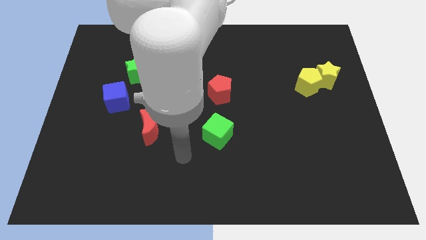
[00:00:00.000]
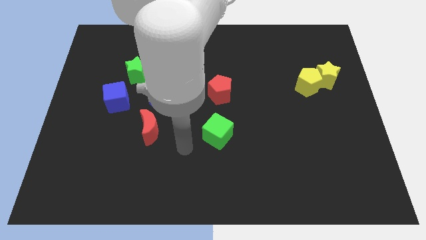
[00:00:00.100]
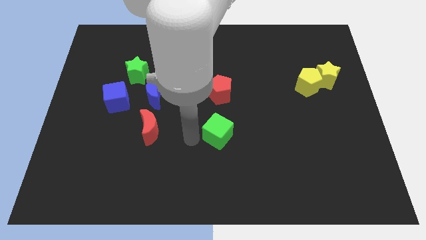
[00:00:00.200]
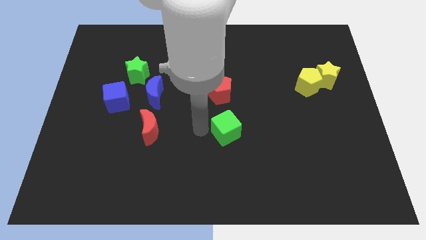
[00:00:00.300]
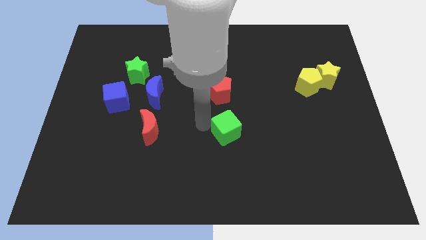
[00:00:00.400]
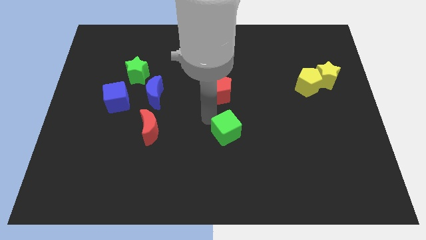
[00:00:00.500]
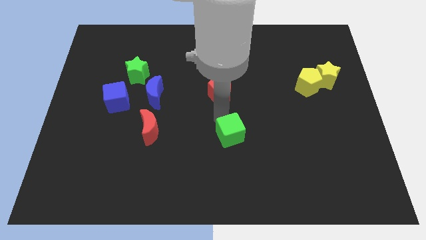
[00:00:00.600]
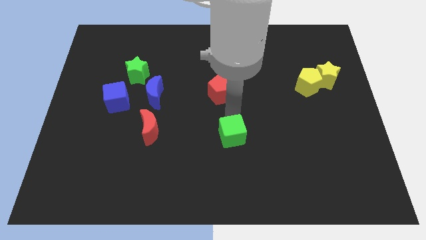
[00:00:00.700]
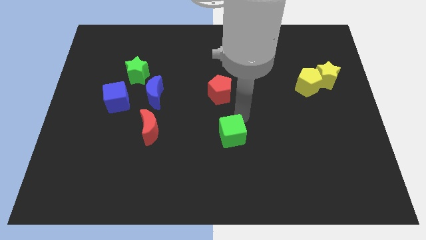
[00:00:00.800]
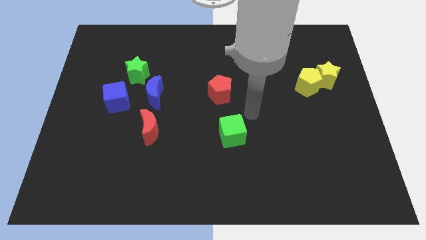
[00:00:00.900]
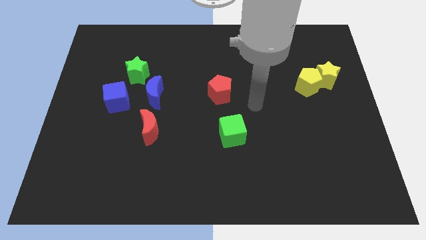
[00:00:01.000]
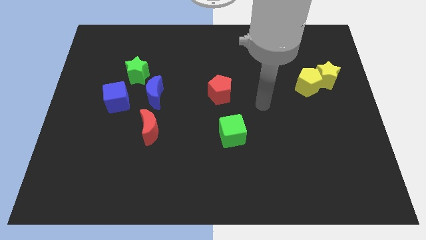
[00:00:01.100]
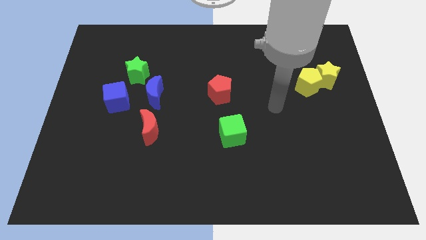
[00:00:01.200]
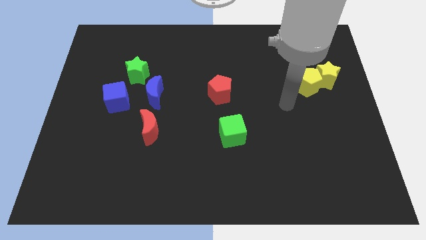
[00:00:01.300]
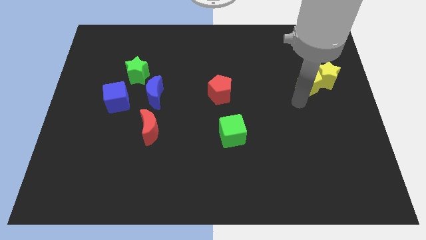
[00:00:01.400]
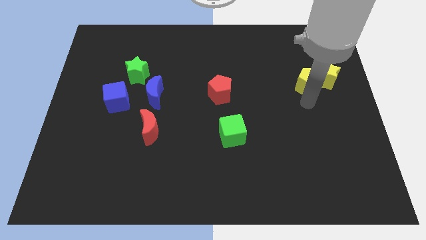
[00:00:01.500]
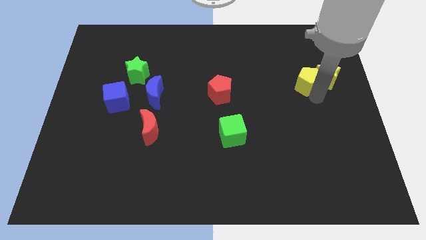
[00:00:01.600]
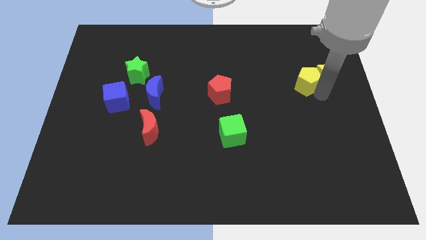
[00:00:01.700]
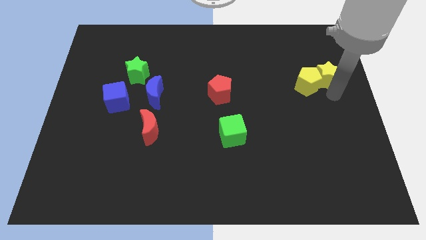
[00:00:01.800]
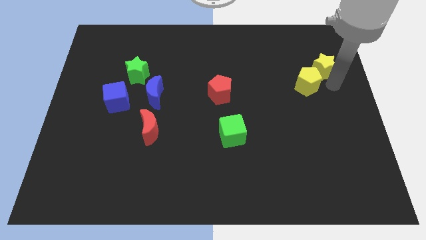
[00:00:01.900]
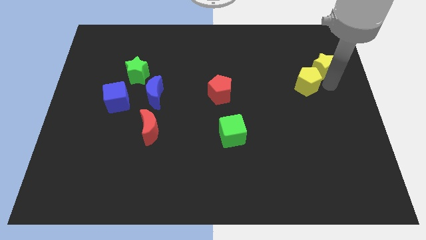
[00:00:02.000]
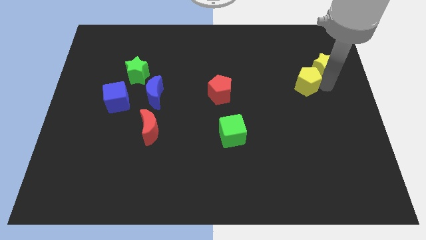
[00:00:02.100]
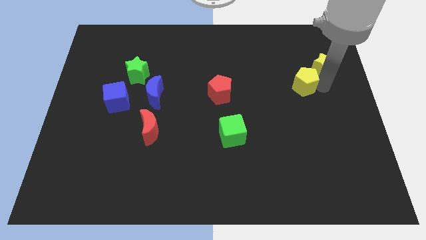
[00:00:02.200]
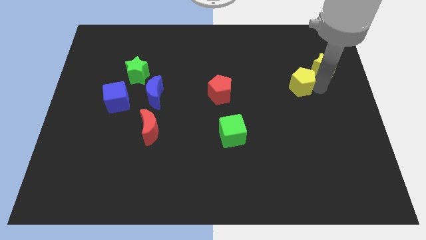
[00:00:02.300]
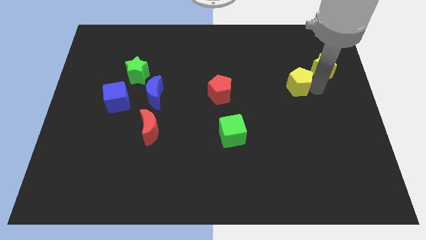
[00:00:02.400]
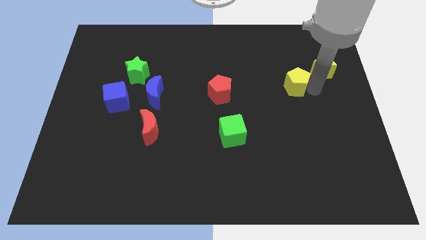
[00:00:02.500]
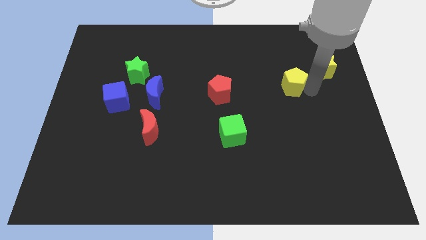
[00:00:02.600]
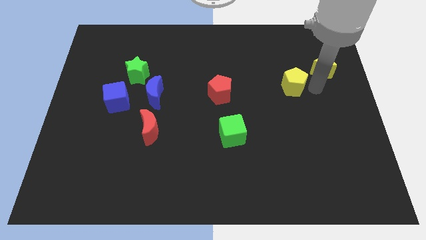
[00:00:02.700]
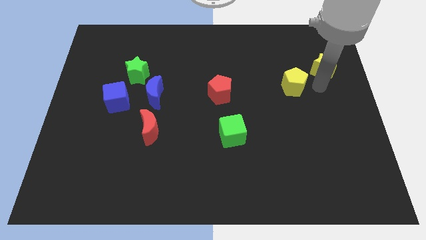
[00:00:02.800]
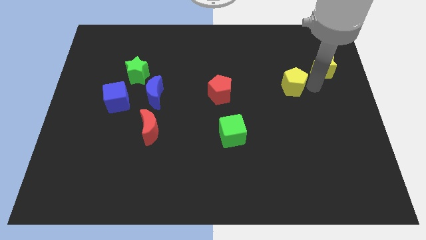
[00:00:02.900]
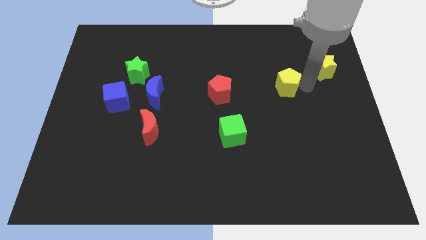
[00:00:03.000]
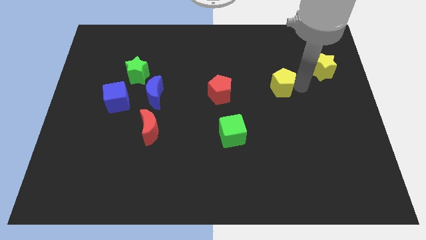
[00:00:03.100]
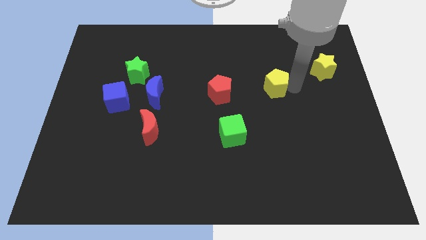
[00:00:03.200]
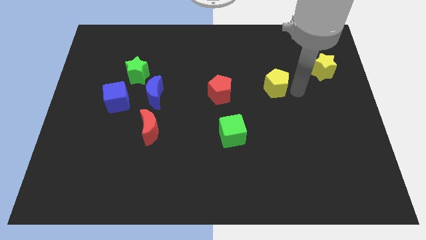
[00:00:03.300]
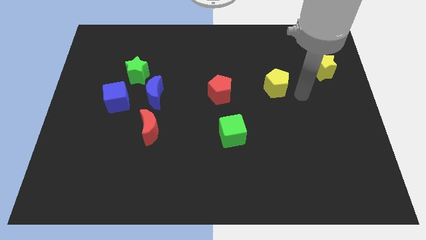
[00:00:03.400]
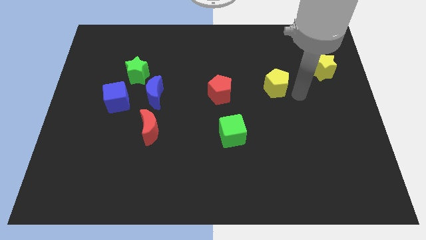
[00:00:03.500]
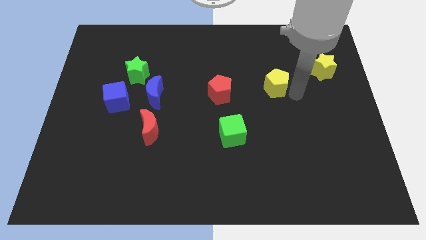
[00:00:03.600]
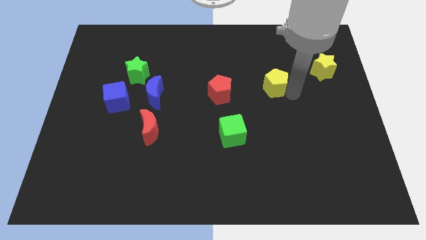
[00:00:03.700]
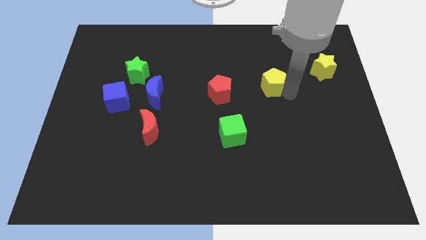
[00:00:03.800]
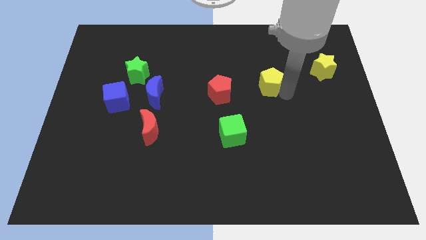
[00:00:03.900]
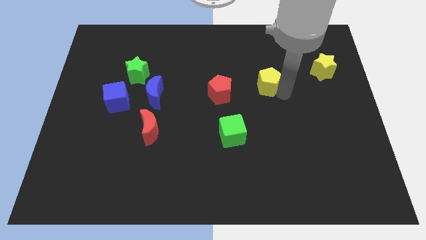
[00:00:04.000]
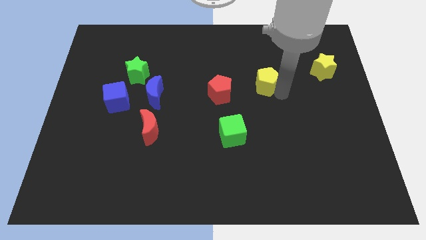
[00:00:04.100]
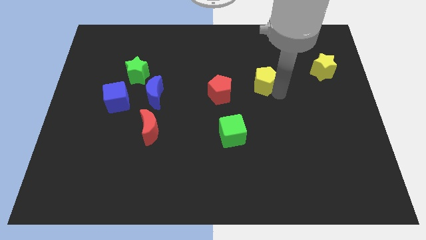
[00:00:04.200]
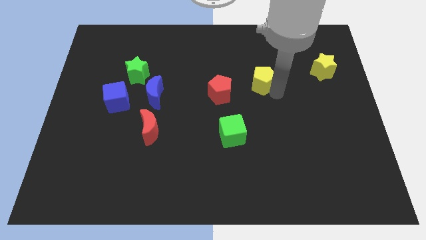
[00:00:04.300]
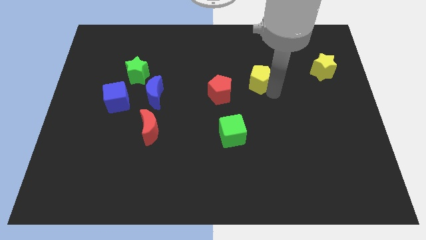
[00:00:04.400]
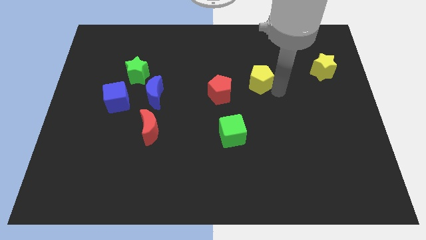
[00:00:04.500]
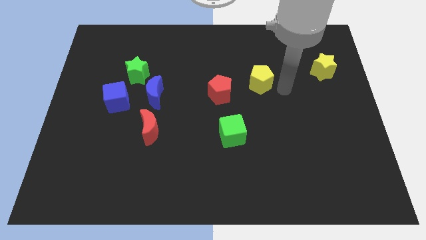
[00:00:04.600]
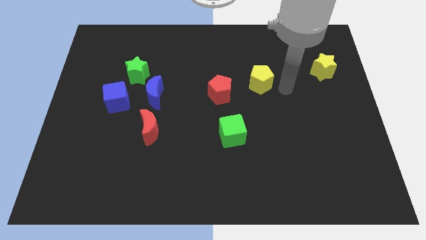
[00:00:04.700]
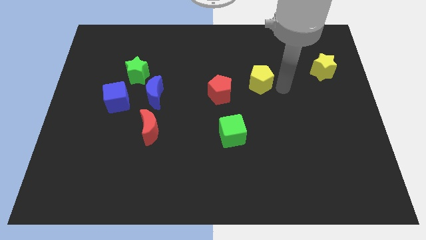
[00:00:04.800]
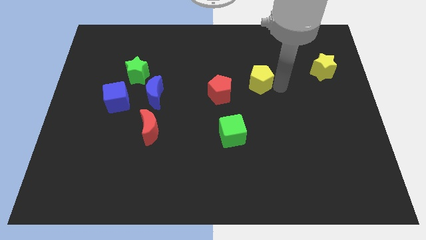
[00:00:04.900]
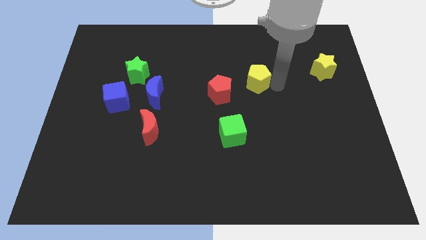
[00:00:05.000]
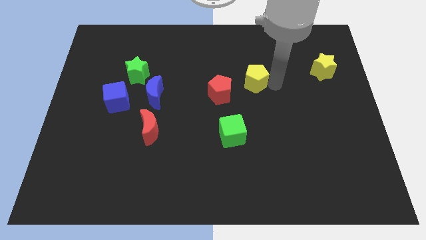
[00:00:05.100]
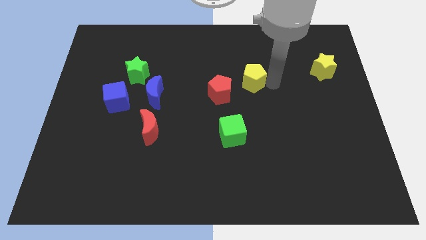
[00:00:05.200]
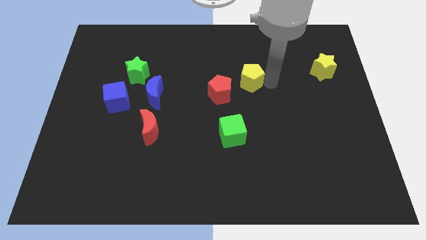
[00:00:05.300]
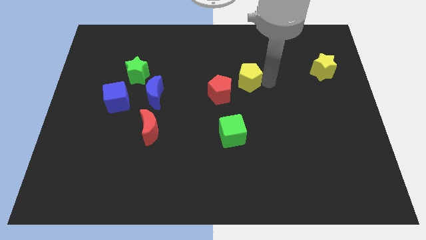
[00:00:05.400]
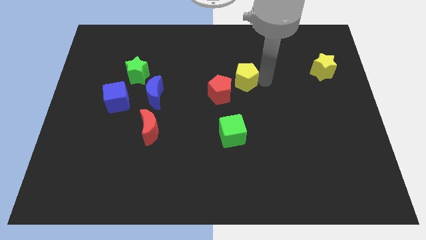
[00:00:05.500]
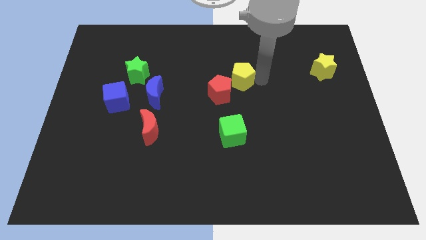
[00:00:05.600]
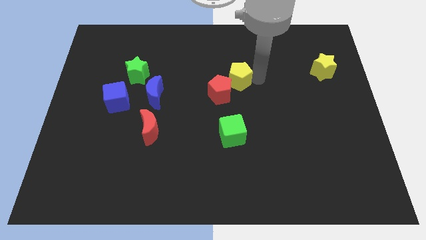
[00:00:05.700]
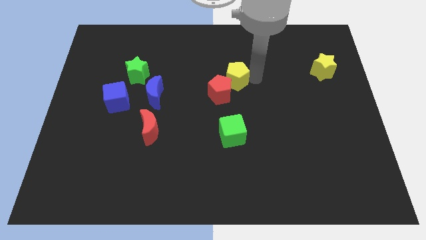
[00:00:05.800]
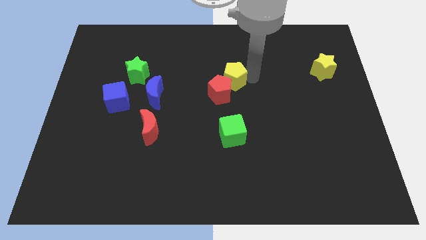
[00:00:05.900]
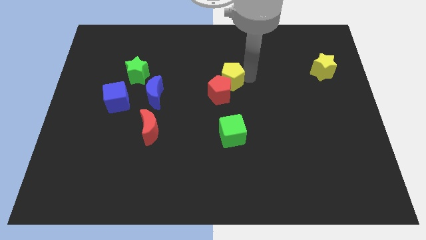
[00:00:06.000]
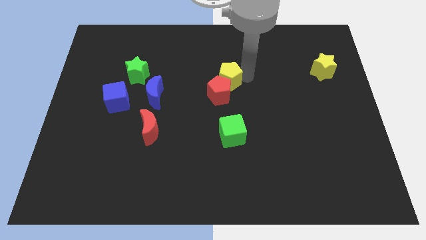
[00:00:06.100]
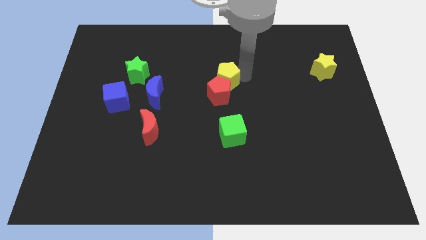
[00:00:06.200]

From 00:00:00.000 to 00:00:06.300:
slide the yellow pentagon to the left

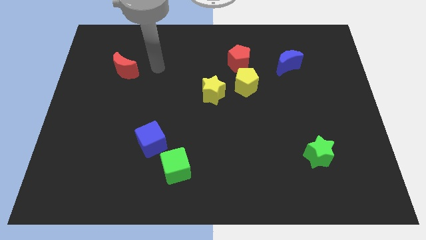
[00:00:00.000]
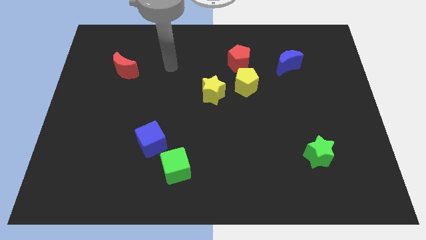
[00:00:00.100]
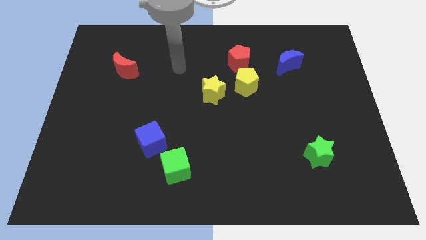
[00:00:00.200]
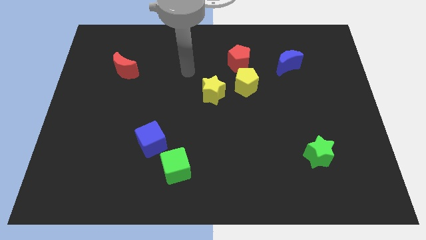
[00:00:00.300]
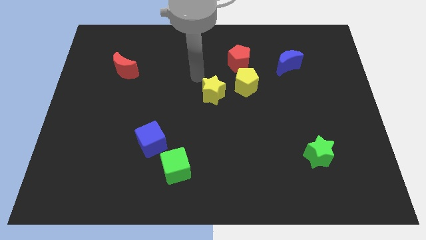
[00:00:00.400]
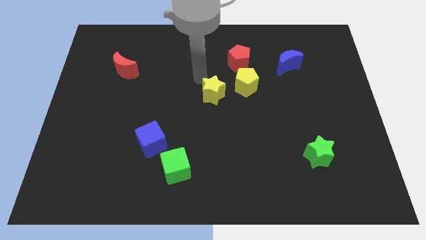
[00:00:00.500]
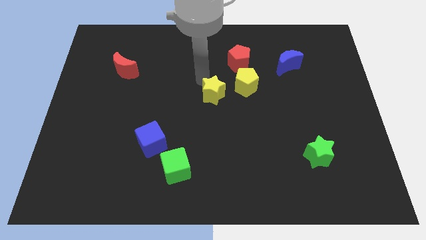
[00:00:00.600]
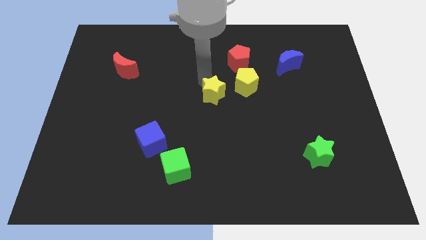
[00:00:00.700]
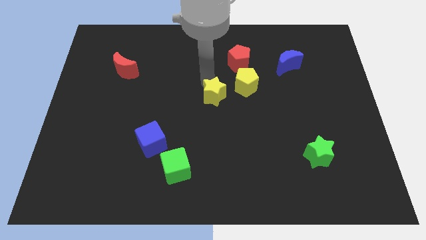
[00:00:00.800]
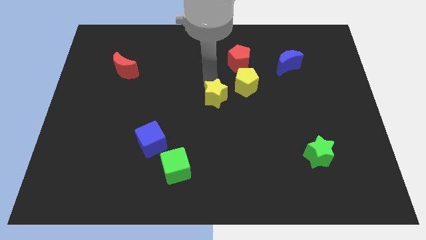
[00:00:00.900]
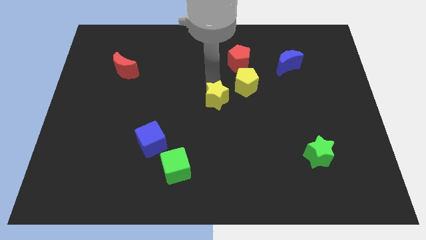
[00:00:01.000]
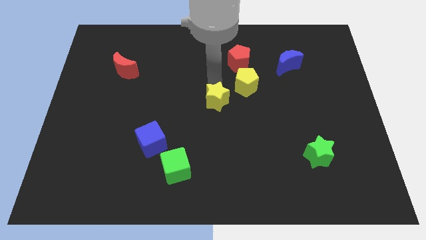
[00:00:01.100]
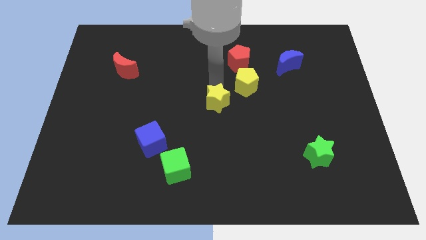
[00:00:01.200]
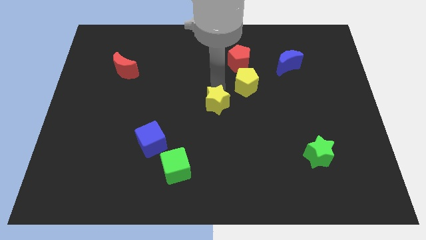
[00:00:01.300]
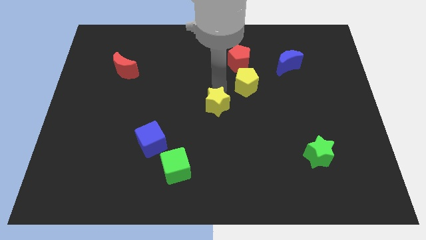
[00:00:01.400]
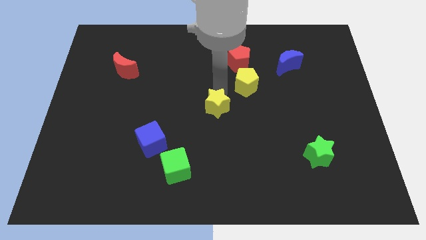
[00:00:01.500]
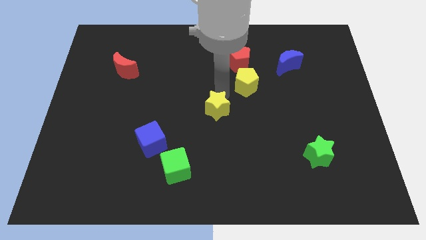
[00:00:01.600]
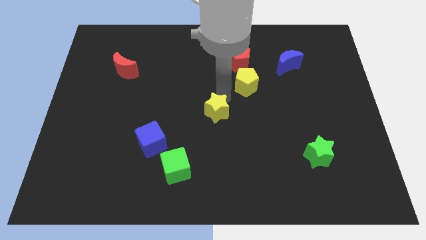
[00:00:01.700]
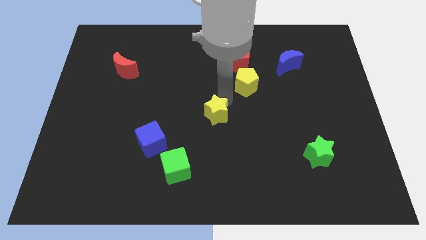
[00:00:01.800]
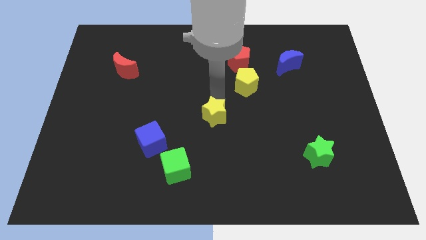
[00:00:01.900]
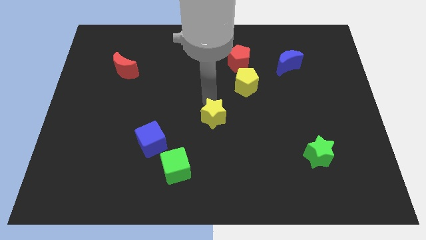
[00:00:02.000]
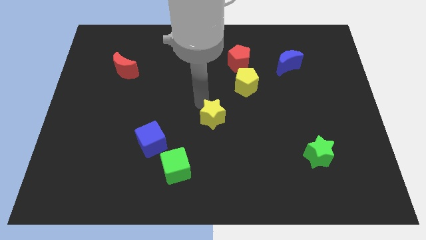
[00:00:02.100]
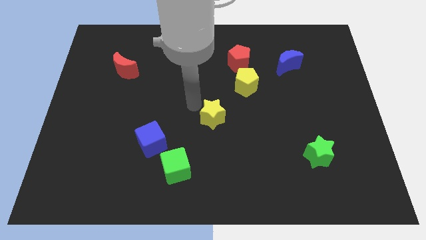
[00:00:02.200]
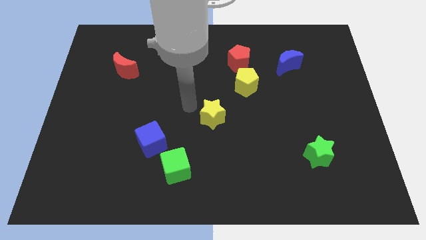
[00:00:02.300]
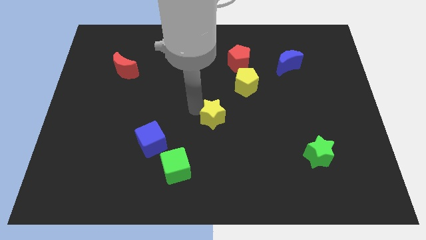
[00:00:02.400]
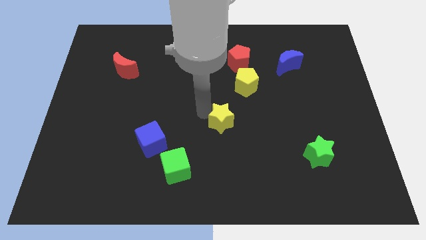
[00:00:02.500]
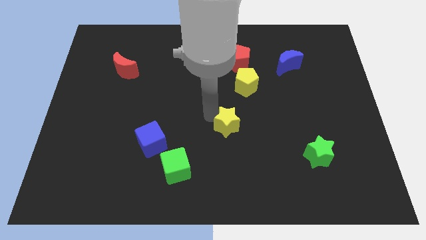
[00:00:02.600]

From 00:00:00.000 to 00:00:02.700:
slide the yellow star slightly diagonally down and to the right
